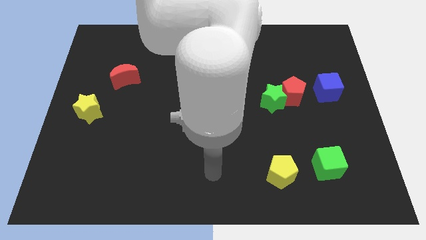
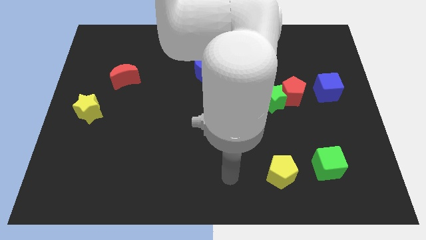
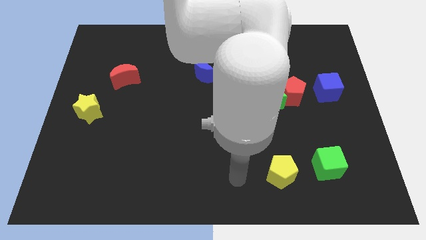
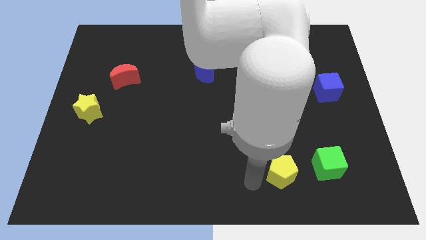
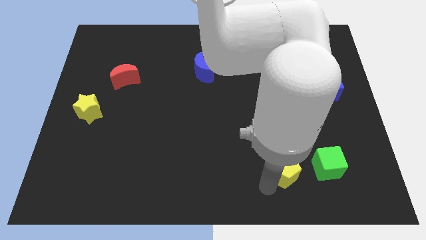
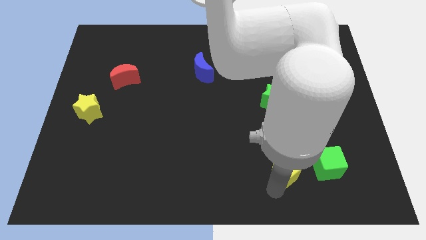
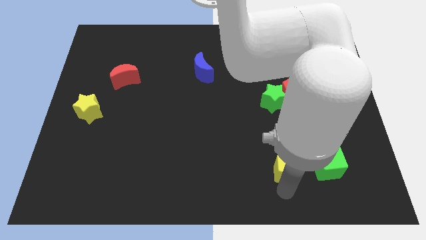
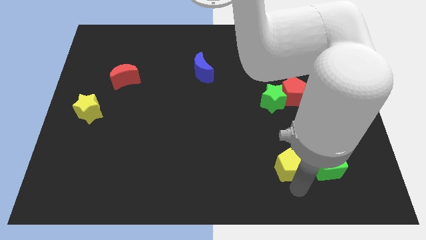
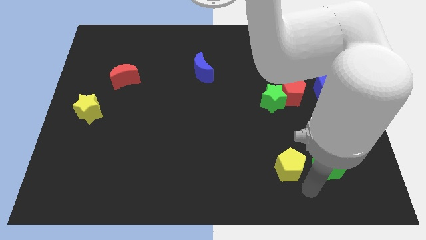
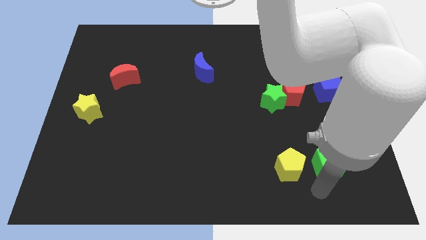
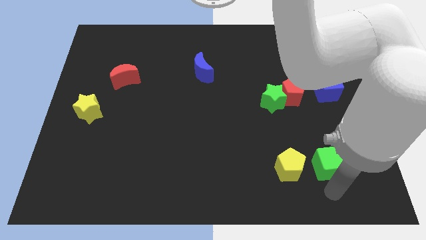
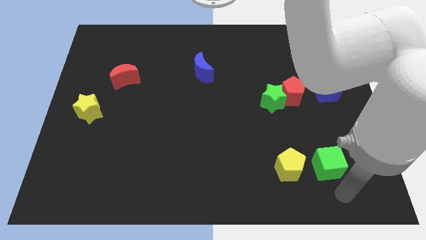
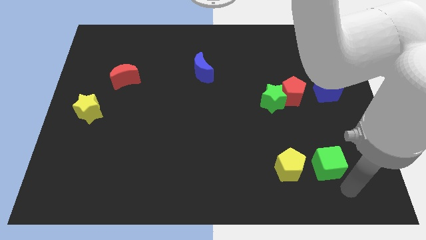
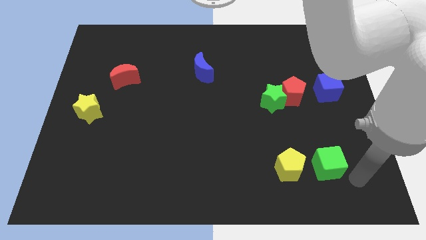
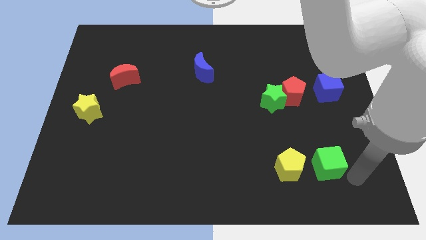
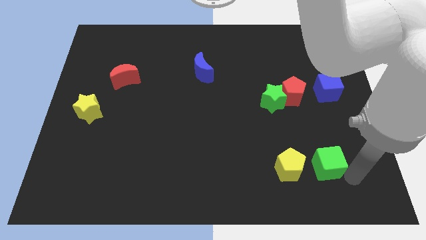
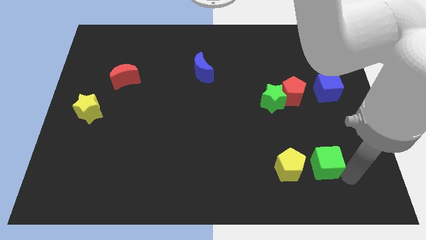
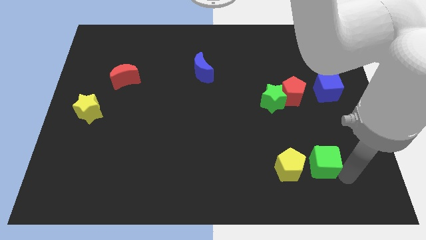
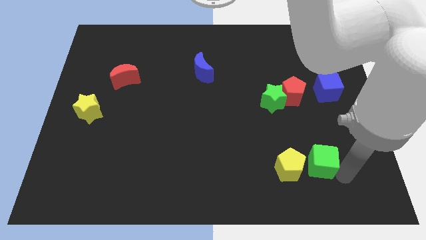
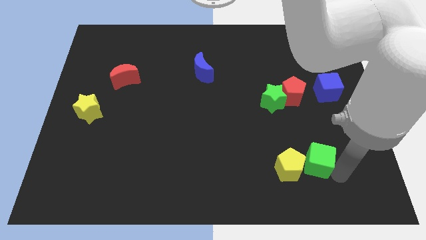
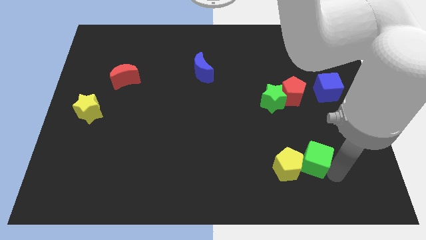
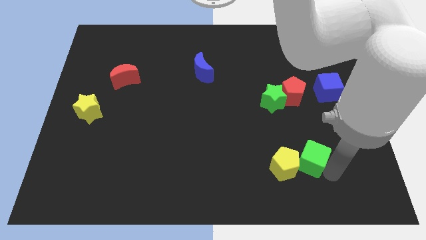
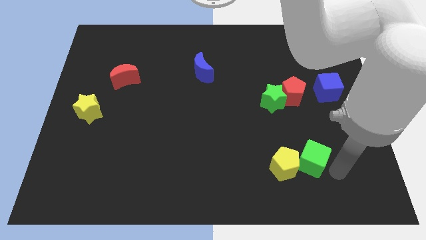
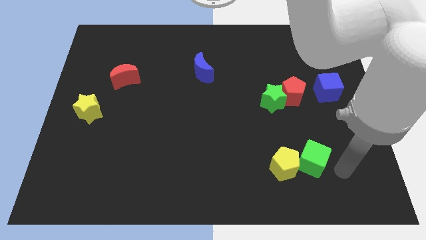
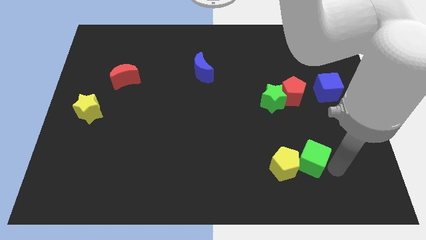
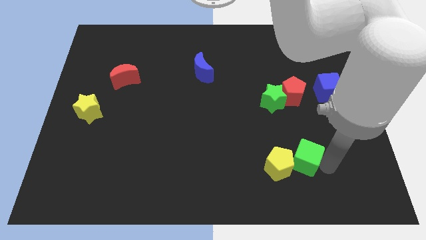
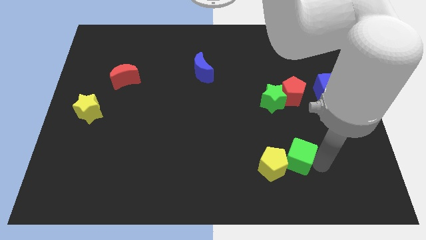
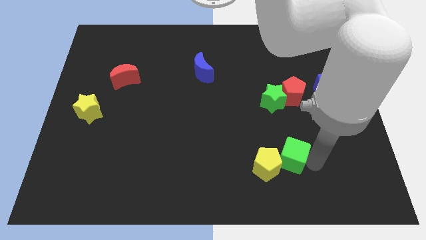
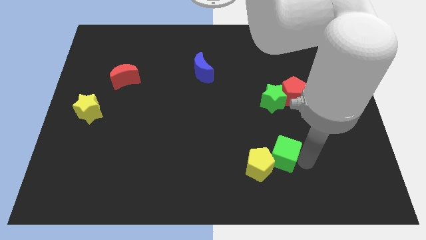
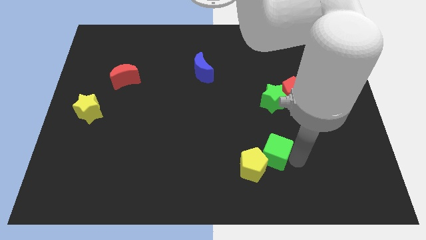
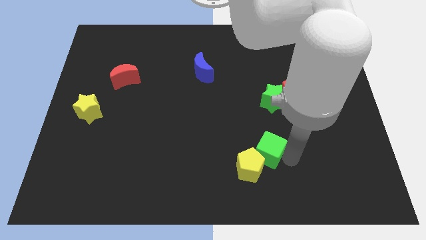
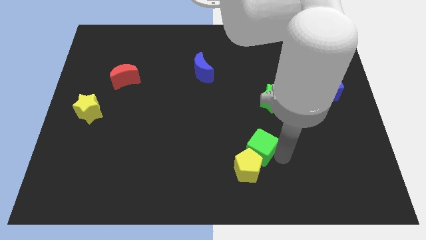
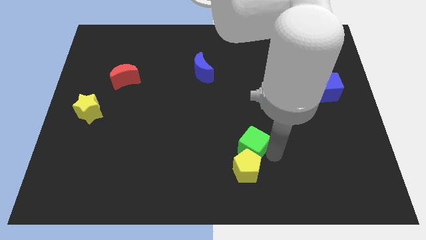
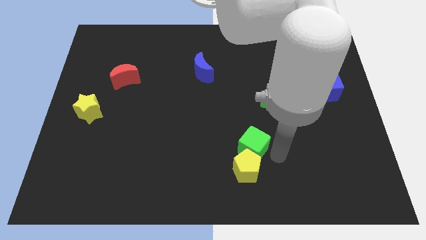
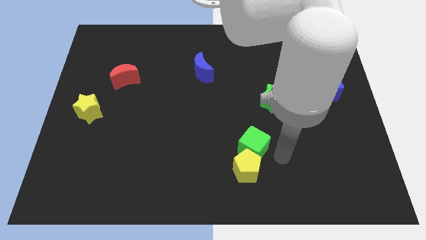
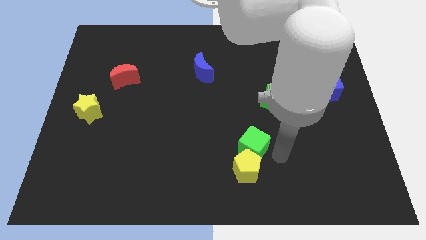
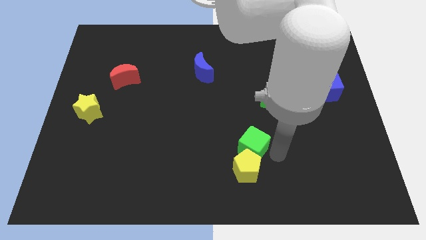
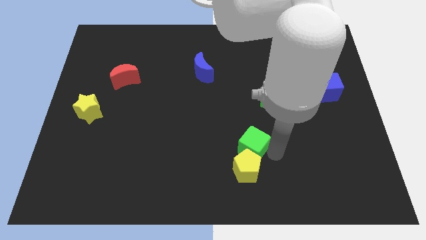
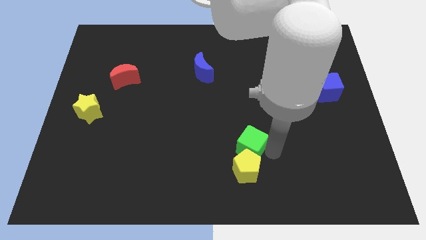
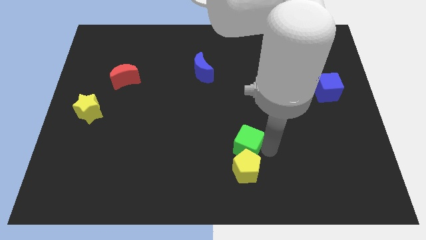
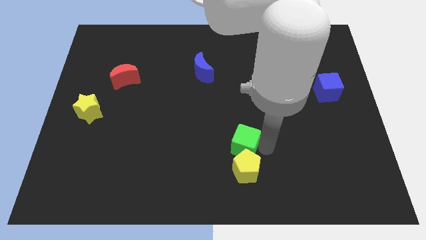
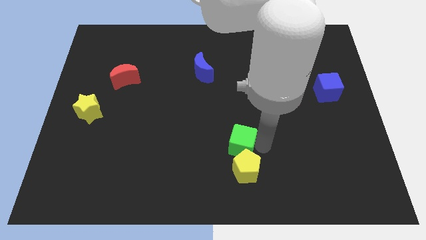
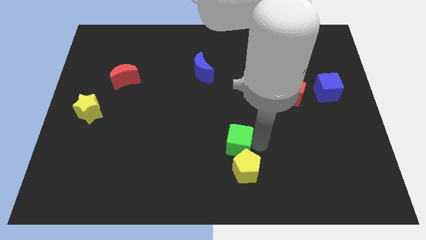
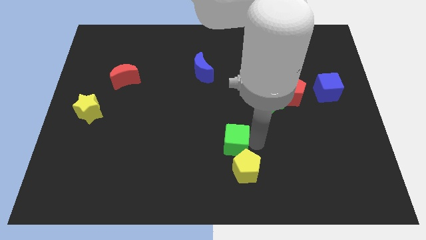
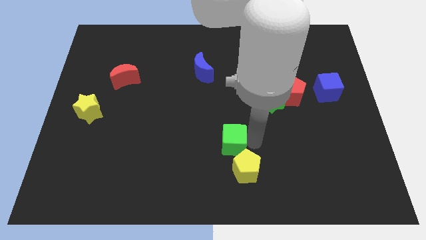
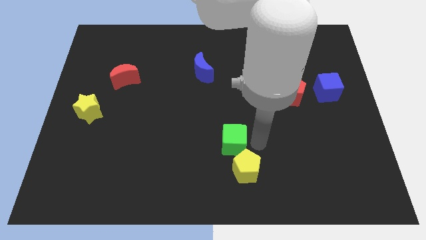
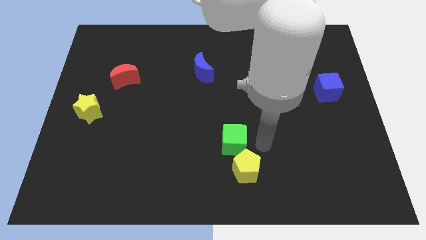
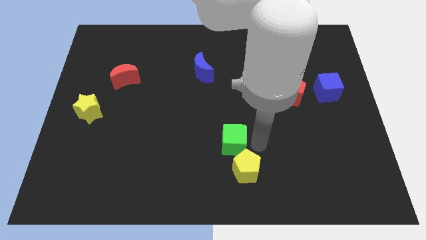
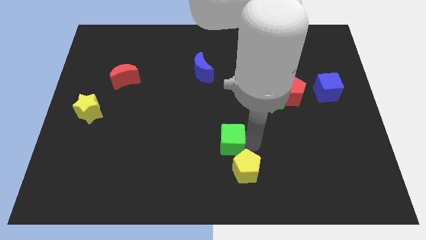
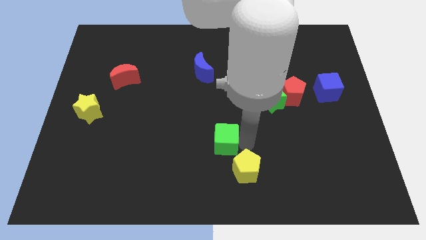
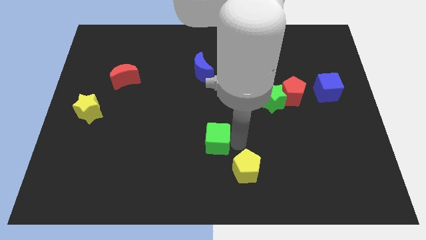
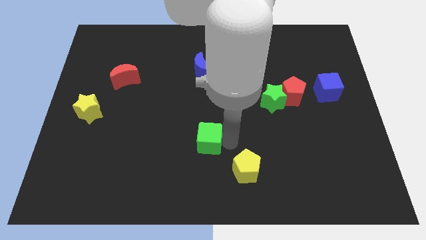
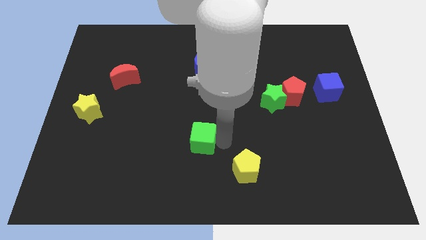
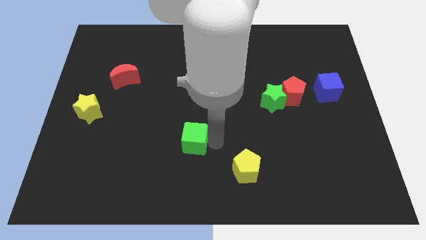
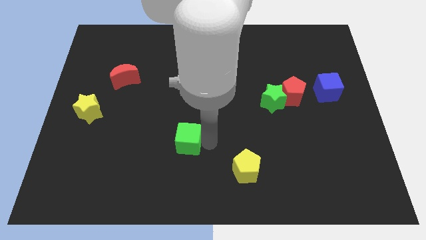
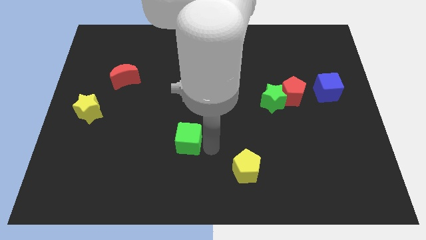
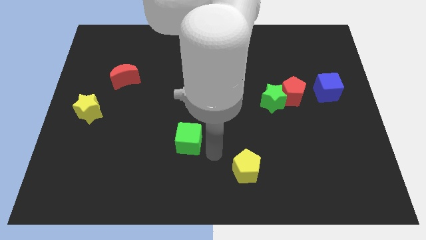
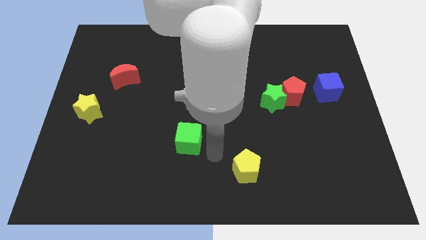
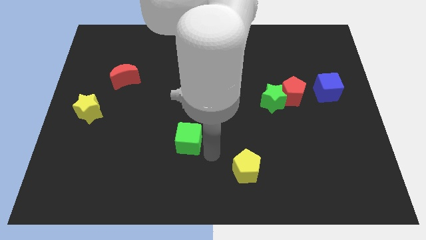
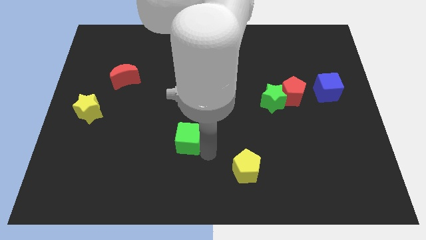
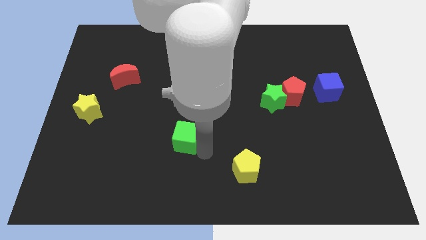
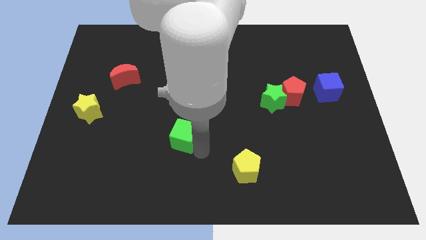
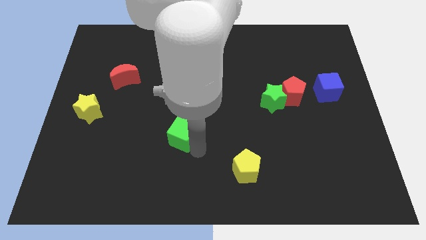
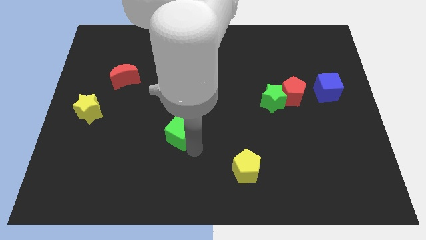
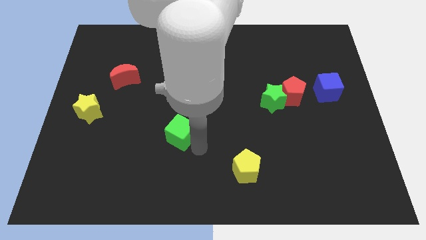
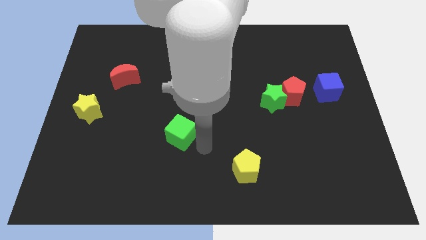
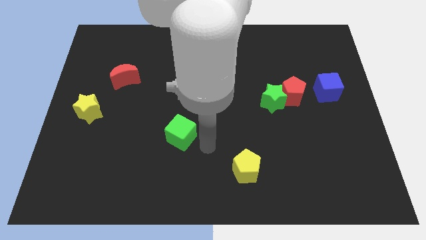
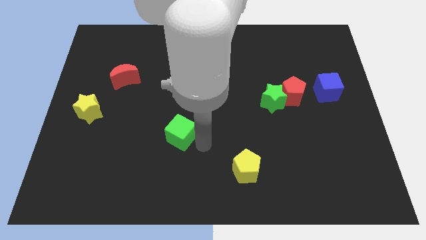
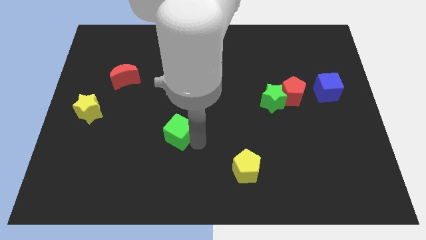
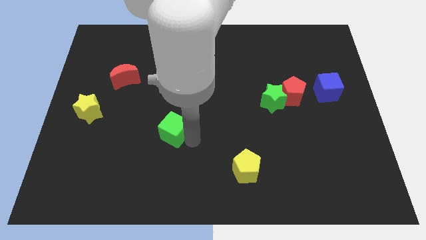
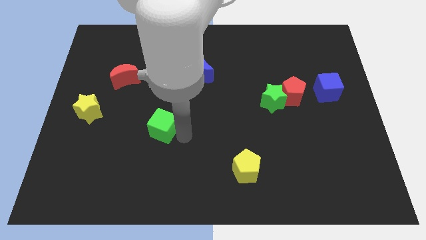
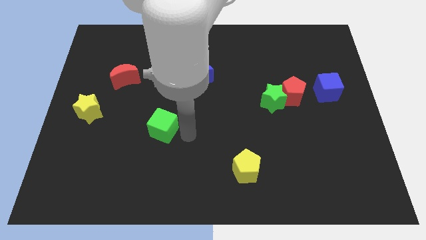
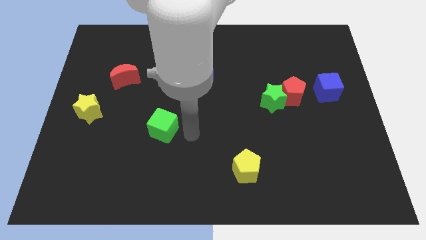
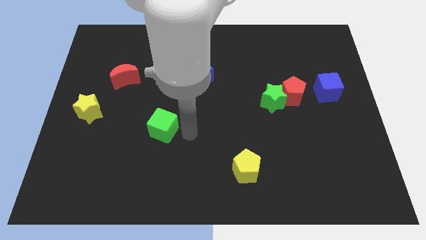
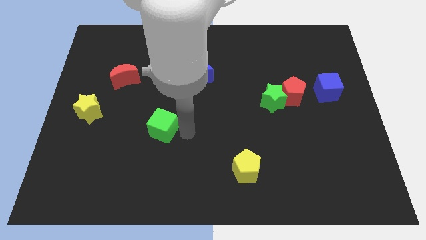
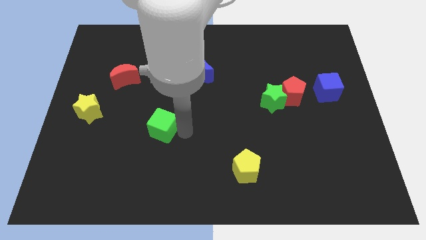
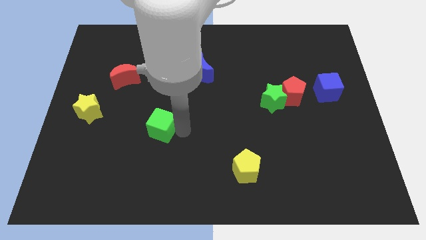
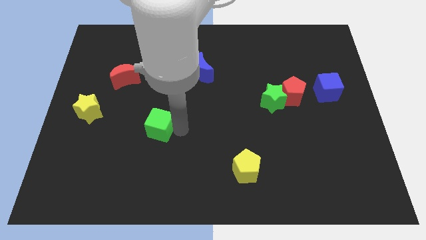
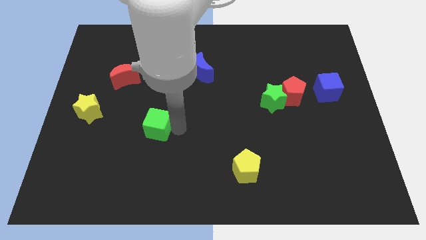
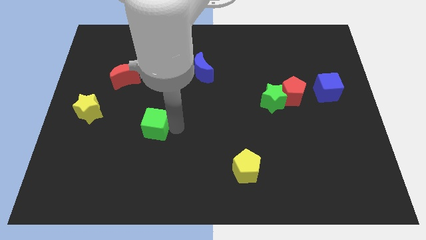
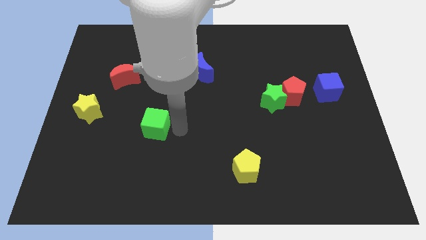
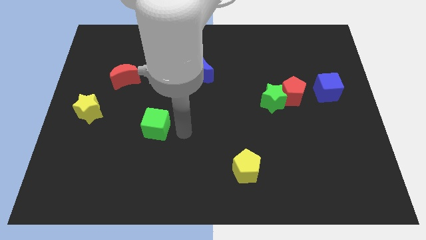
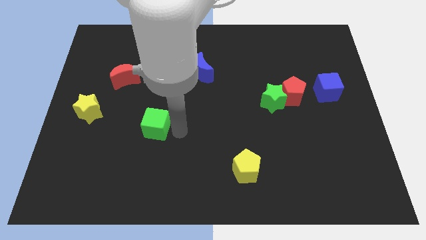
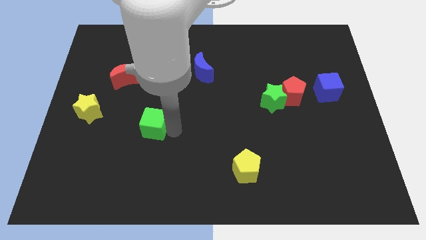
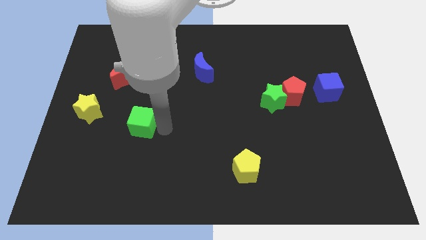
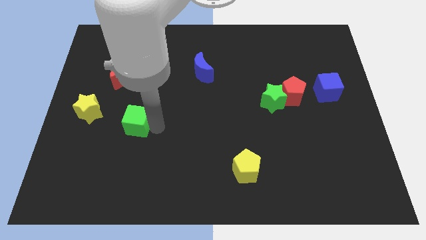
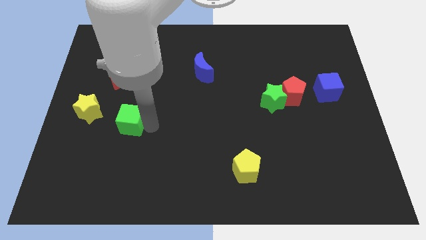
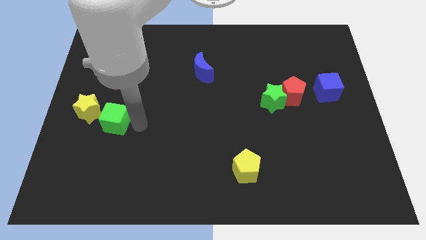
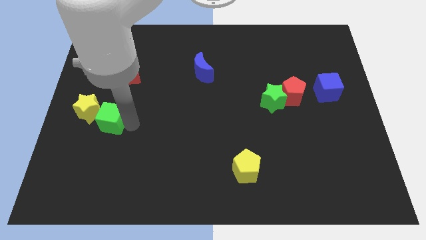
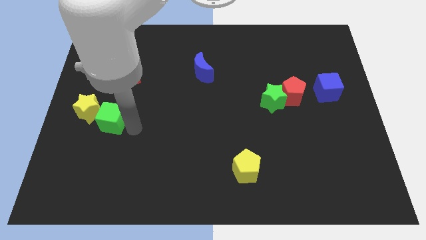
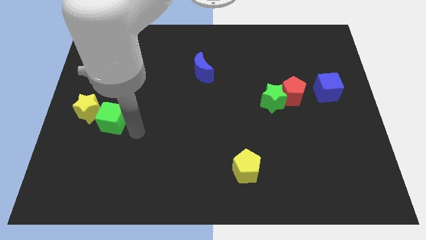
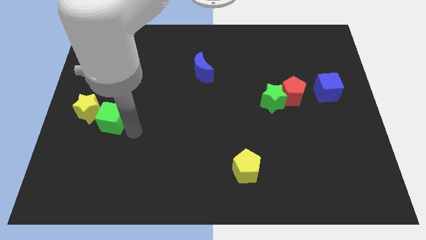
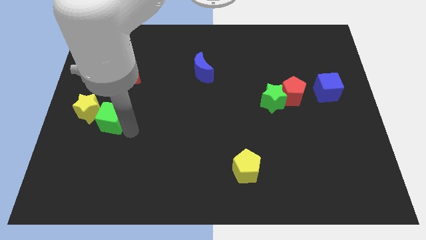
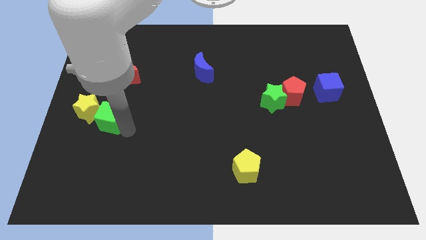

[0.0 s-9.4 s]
put the green cube towards the yellow star
